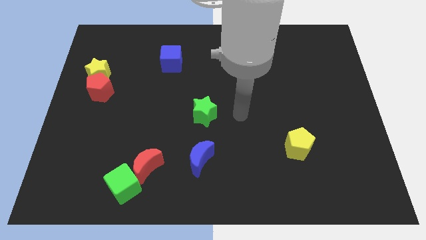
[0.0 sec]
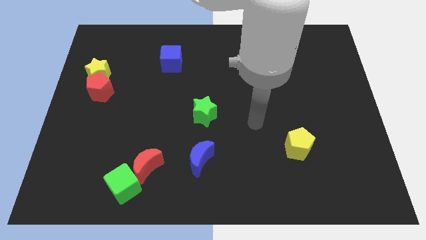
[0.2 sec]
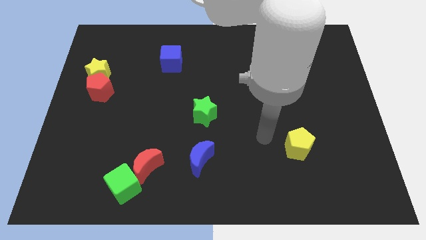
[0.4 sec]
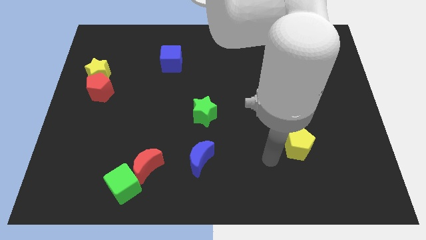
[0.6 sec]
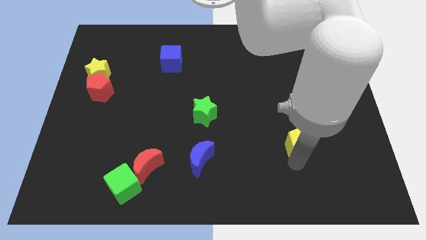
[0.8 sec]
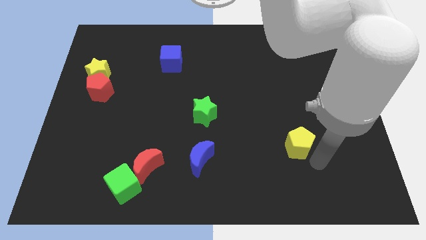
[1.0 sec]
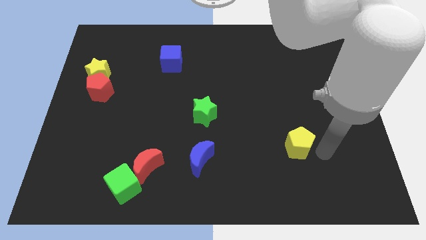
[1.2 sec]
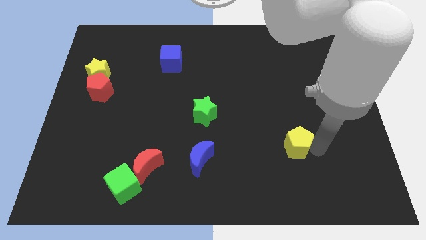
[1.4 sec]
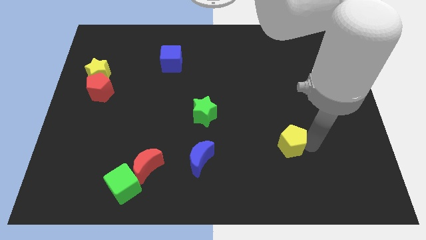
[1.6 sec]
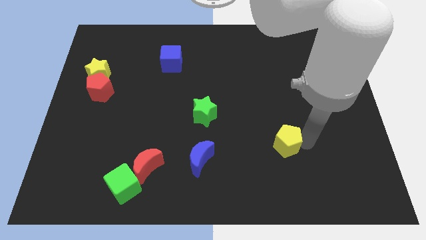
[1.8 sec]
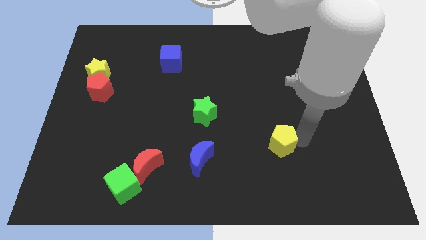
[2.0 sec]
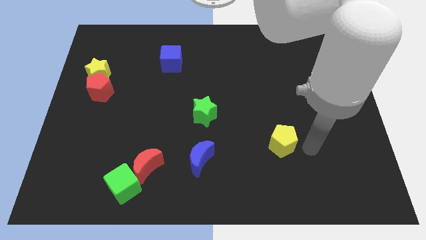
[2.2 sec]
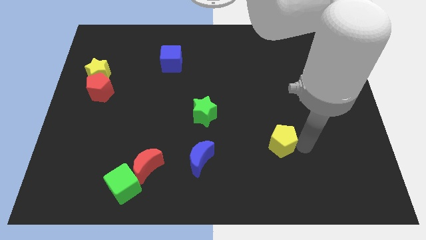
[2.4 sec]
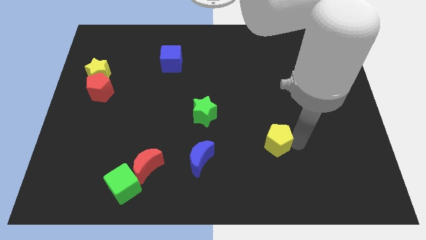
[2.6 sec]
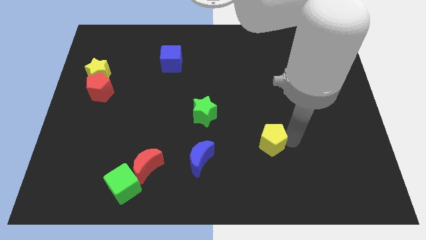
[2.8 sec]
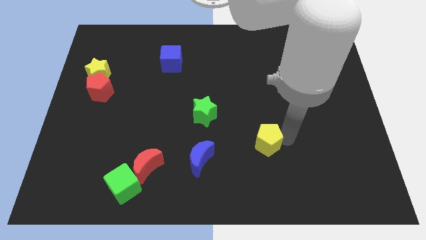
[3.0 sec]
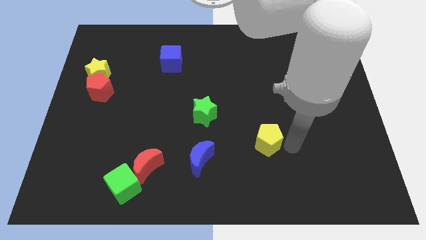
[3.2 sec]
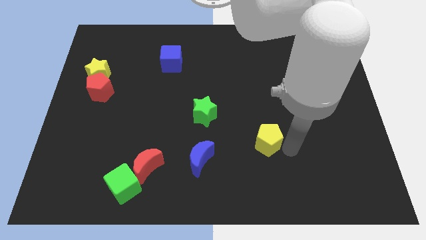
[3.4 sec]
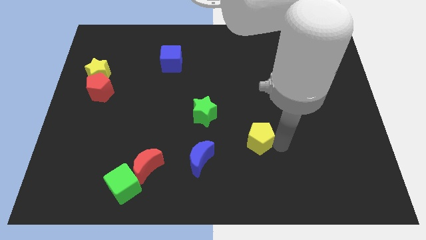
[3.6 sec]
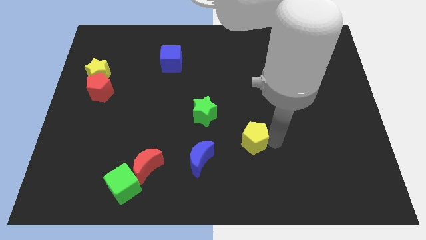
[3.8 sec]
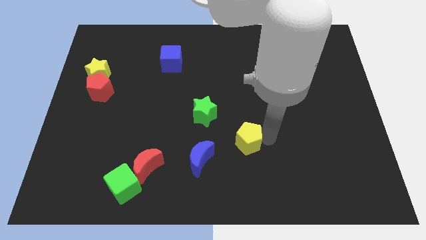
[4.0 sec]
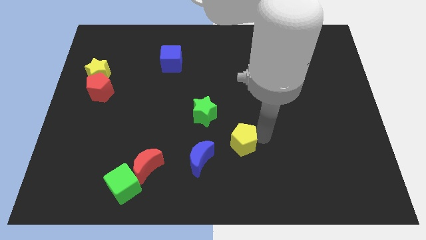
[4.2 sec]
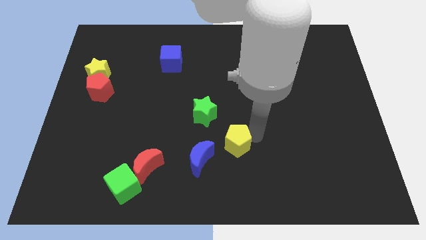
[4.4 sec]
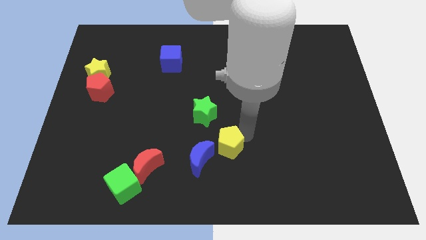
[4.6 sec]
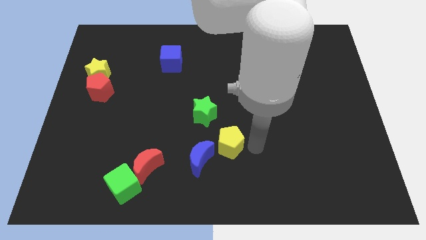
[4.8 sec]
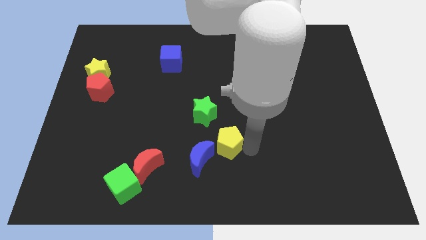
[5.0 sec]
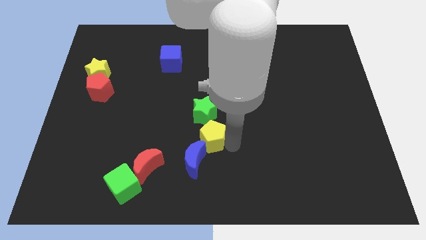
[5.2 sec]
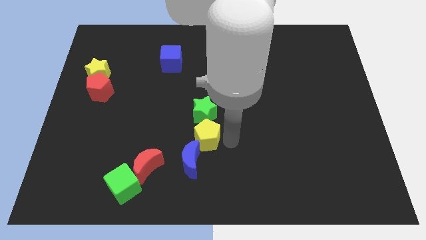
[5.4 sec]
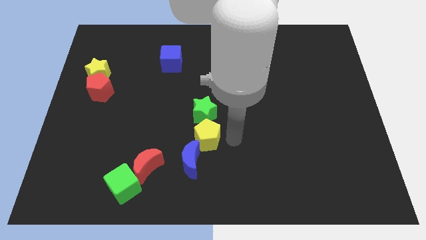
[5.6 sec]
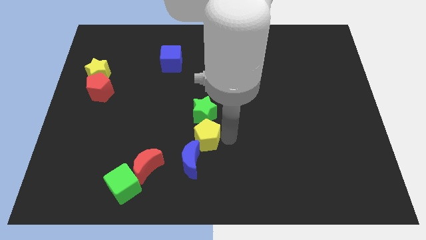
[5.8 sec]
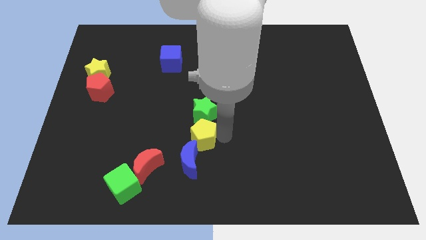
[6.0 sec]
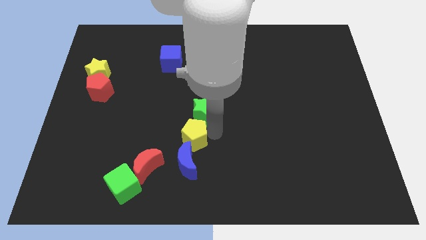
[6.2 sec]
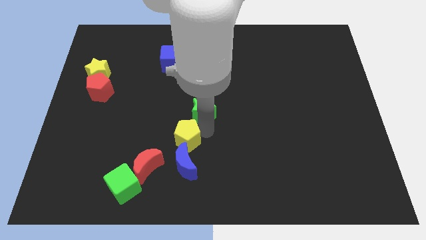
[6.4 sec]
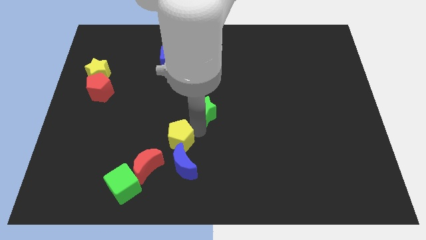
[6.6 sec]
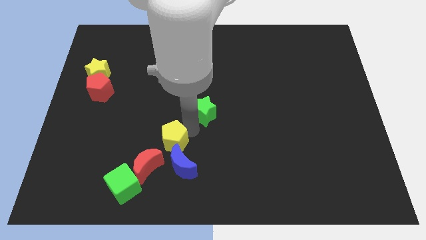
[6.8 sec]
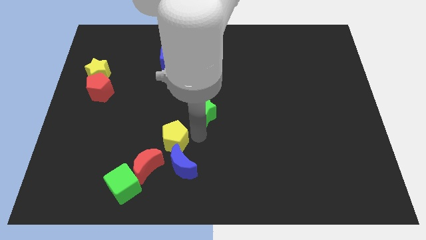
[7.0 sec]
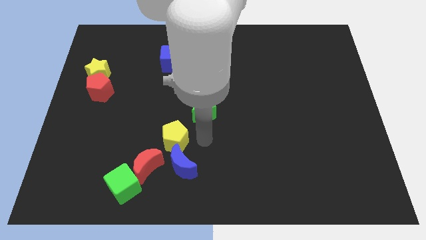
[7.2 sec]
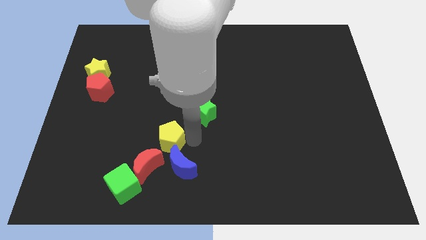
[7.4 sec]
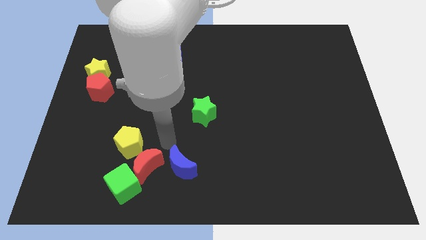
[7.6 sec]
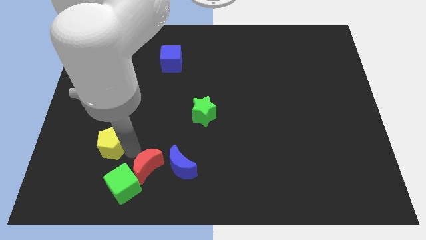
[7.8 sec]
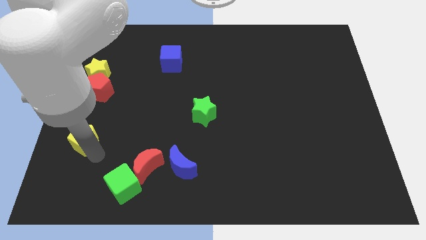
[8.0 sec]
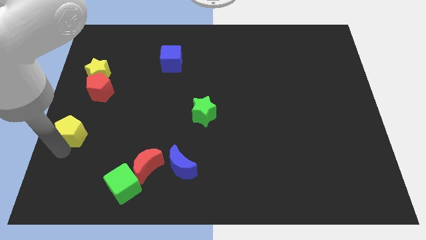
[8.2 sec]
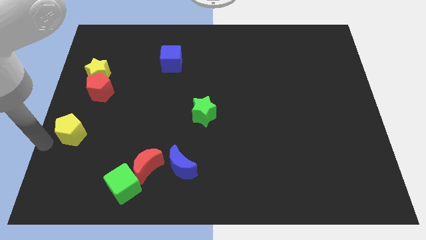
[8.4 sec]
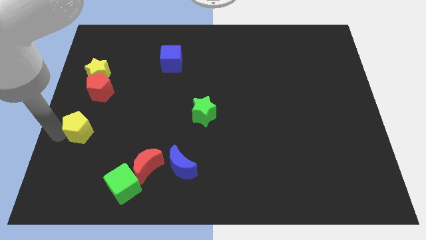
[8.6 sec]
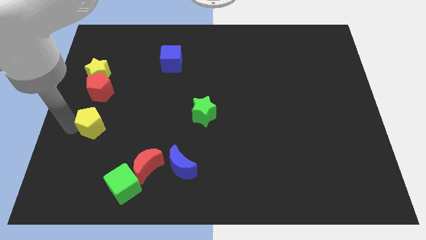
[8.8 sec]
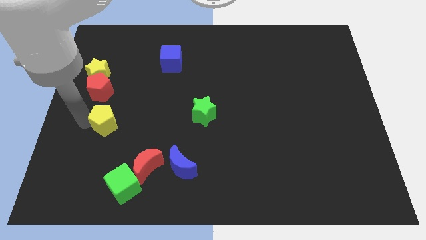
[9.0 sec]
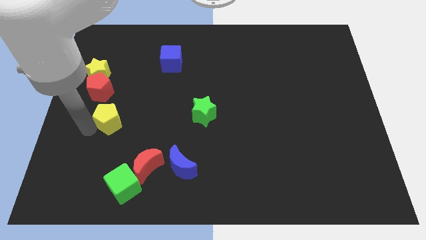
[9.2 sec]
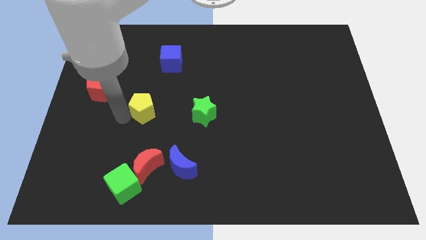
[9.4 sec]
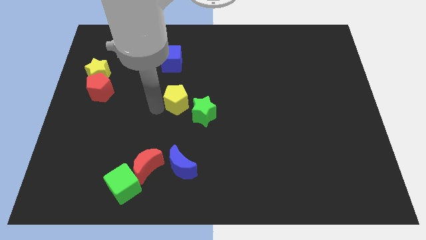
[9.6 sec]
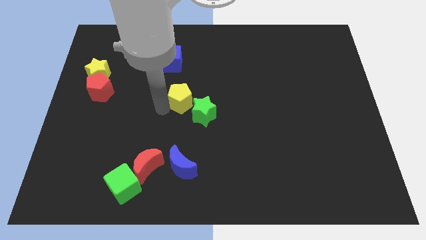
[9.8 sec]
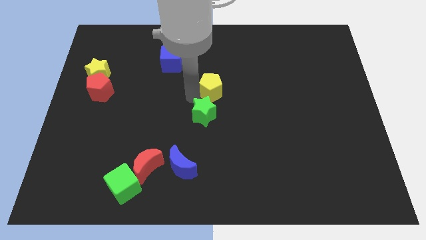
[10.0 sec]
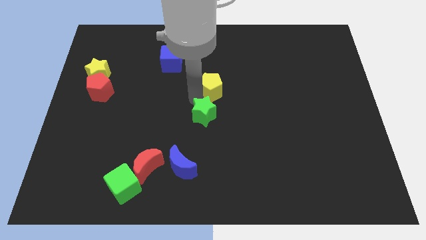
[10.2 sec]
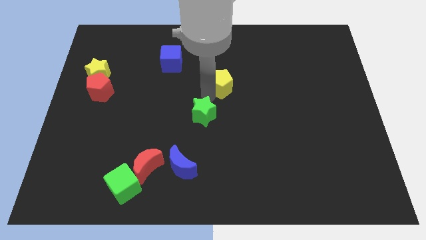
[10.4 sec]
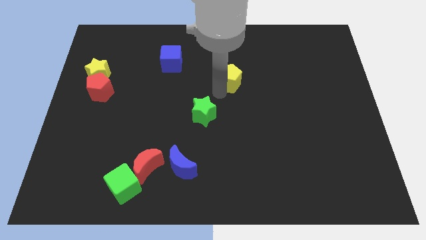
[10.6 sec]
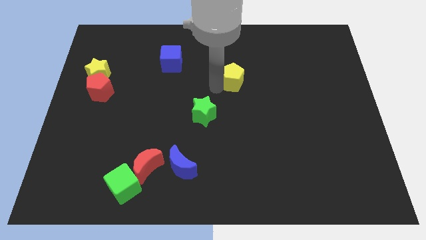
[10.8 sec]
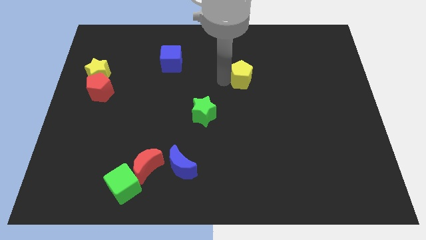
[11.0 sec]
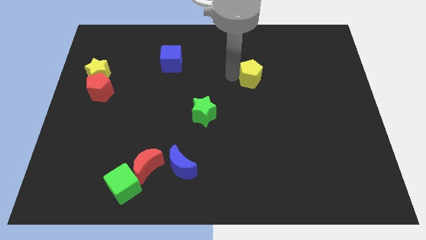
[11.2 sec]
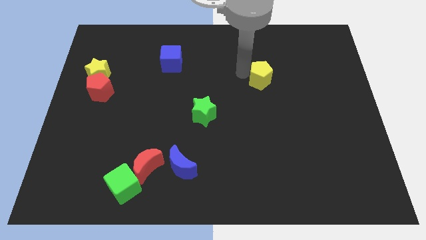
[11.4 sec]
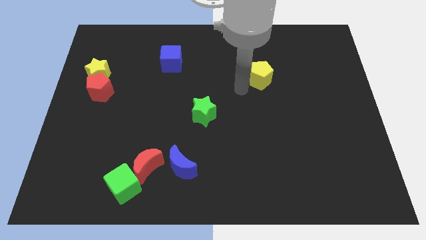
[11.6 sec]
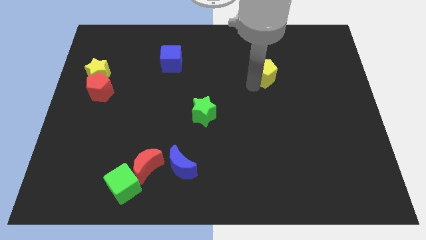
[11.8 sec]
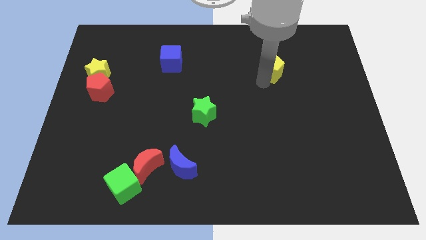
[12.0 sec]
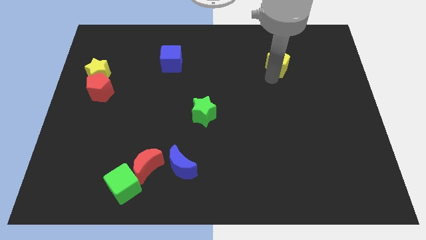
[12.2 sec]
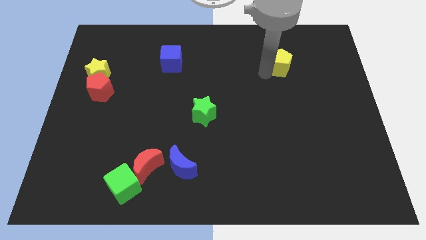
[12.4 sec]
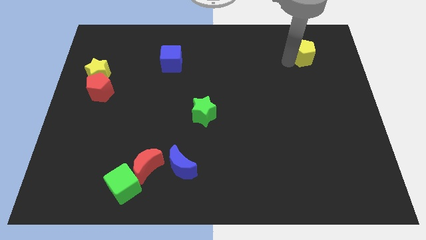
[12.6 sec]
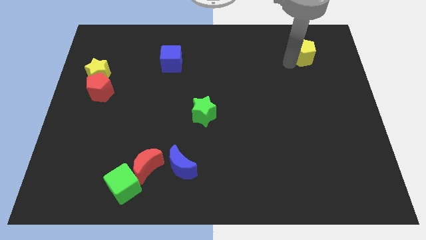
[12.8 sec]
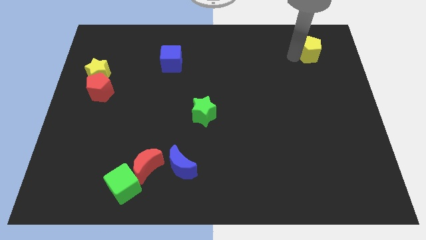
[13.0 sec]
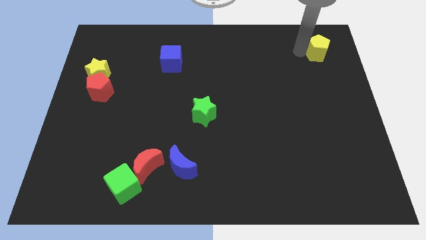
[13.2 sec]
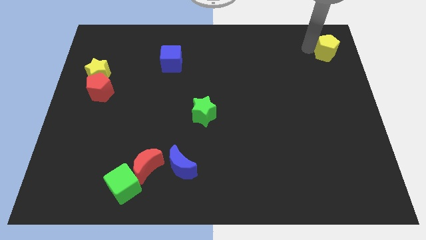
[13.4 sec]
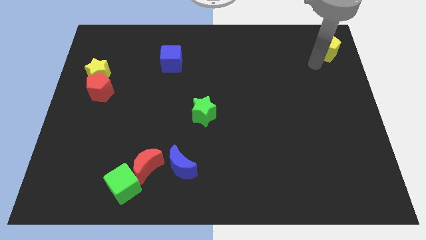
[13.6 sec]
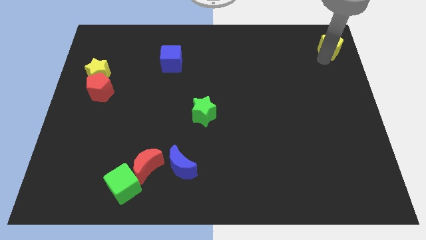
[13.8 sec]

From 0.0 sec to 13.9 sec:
move the yellow pentagon to the top right
